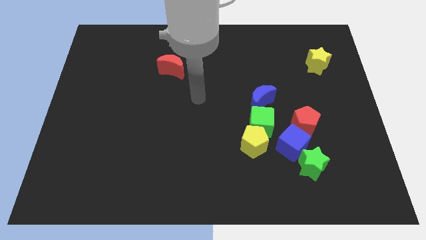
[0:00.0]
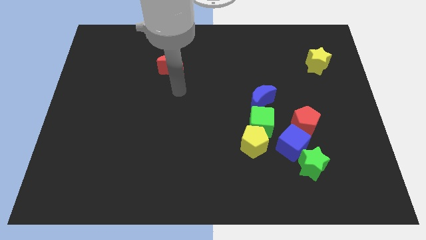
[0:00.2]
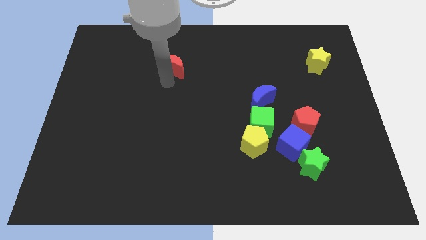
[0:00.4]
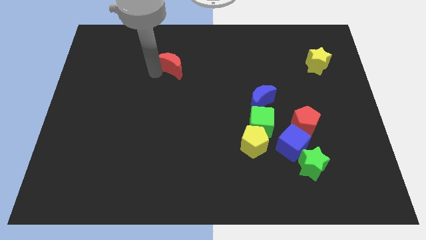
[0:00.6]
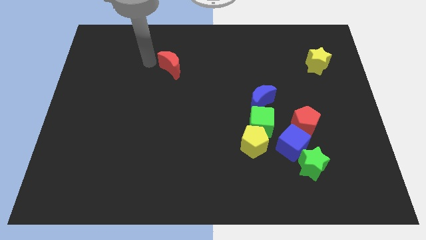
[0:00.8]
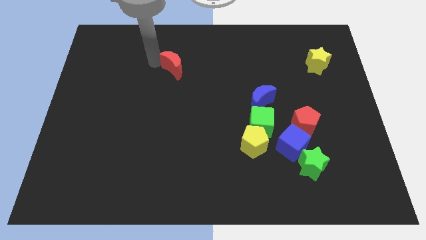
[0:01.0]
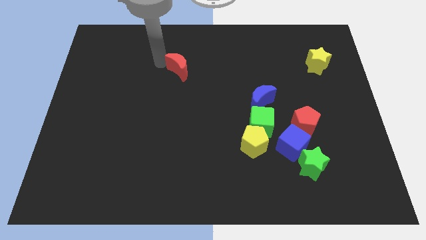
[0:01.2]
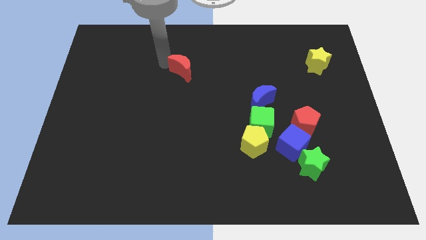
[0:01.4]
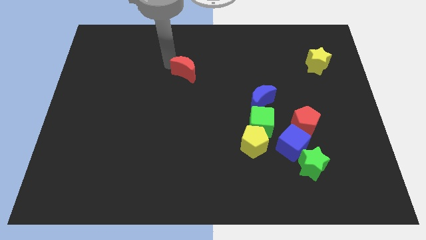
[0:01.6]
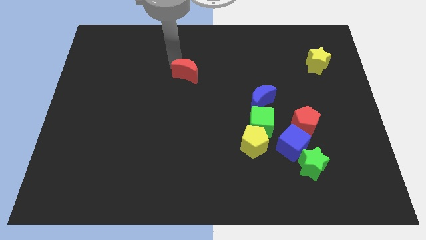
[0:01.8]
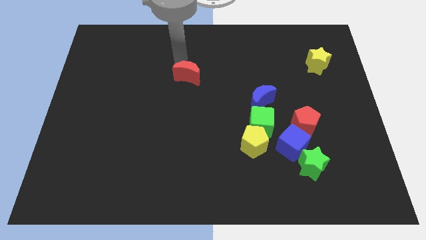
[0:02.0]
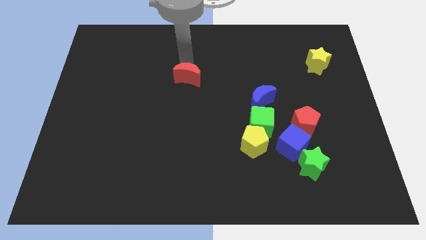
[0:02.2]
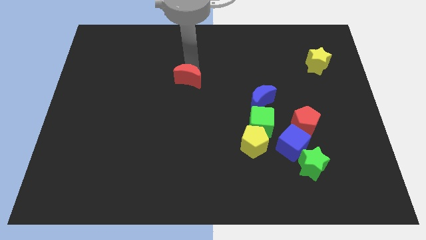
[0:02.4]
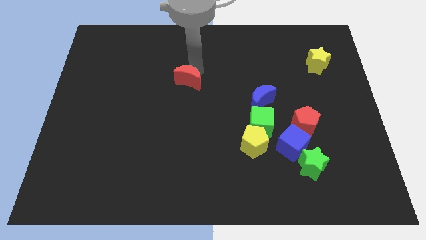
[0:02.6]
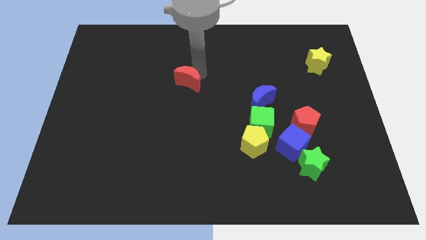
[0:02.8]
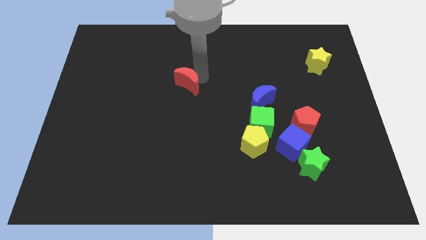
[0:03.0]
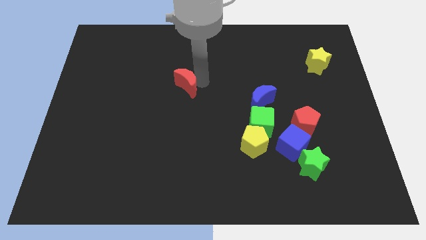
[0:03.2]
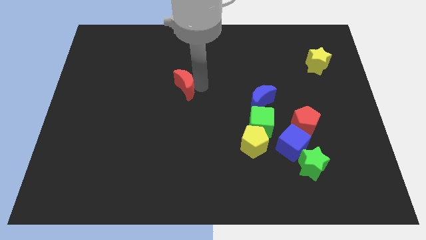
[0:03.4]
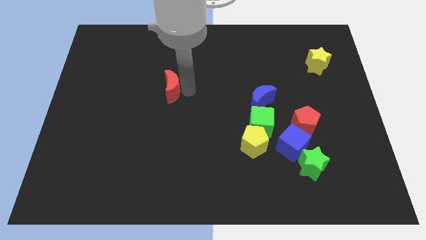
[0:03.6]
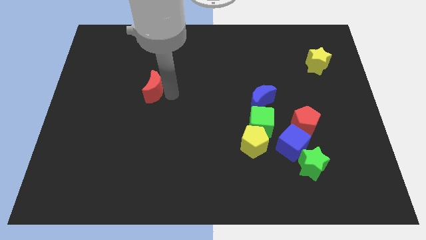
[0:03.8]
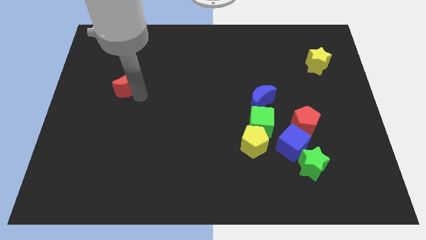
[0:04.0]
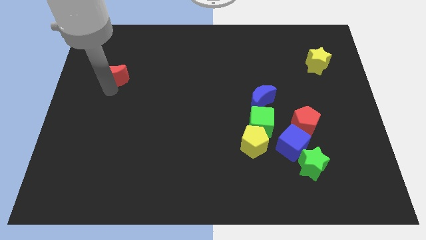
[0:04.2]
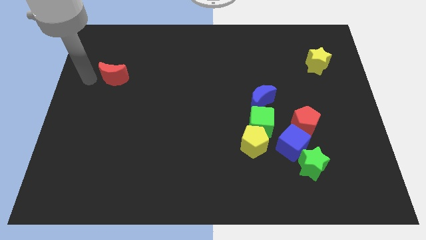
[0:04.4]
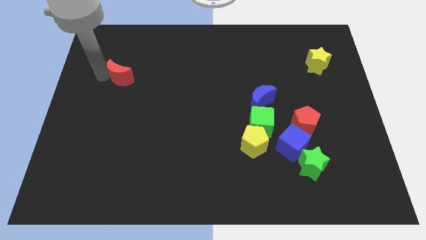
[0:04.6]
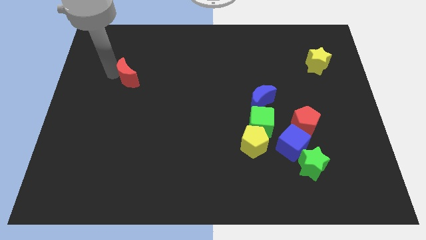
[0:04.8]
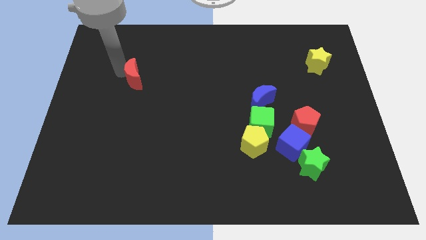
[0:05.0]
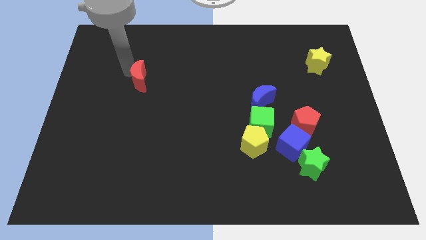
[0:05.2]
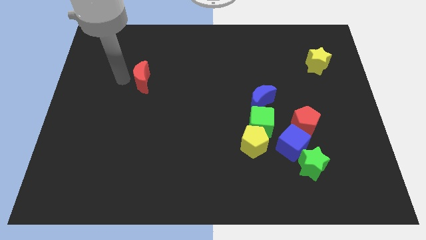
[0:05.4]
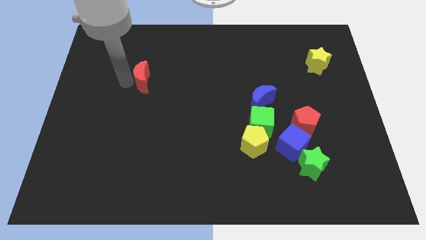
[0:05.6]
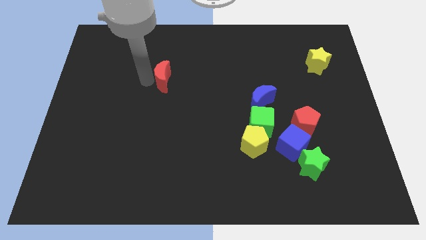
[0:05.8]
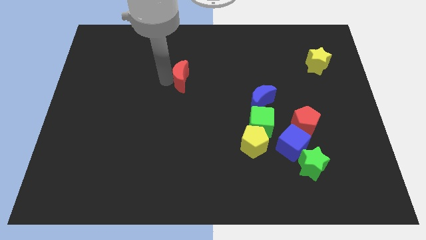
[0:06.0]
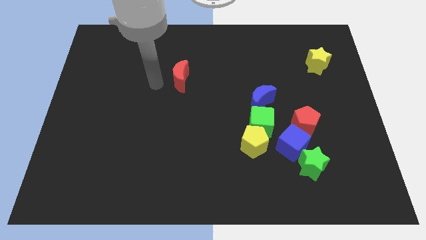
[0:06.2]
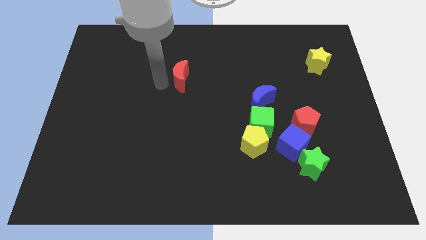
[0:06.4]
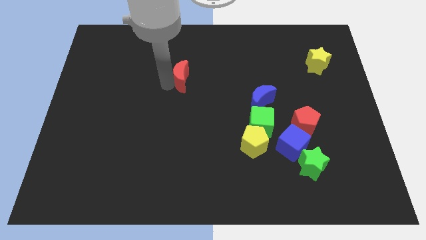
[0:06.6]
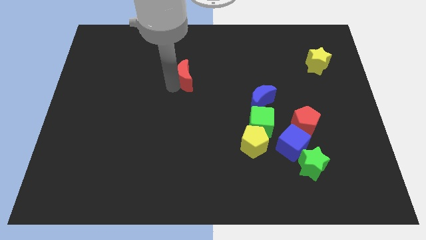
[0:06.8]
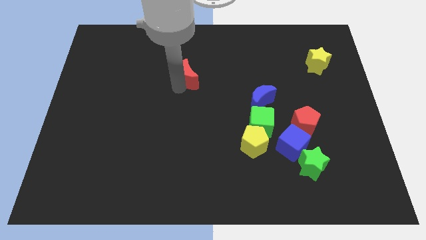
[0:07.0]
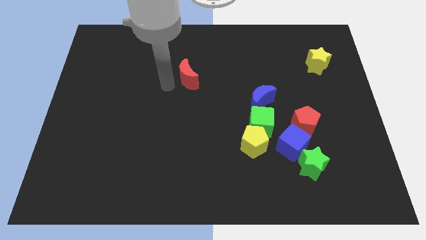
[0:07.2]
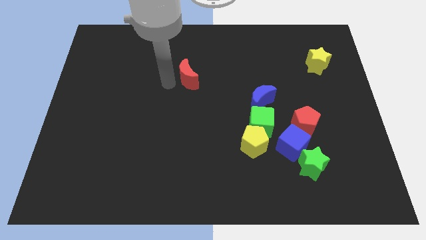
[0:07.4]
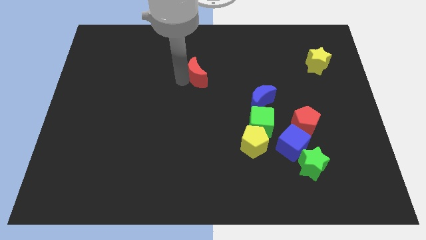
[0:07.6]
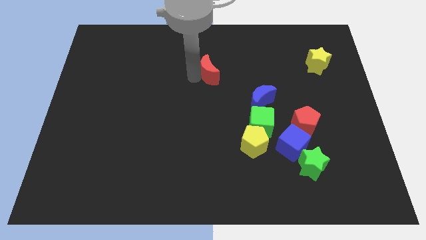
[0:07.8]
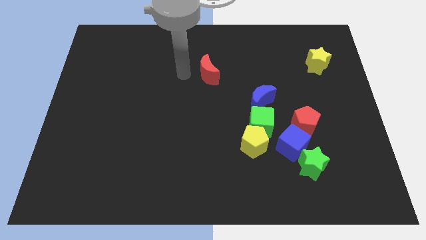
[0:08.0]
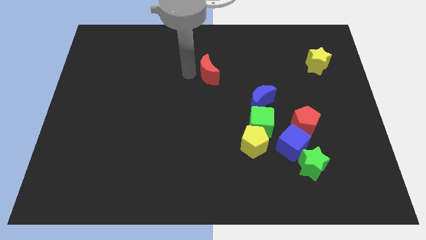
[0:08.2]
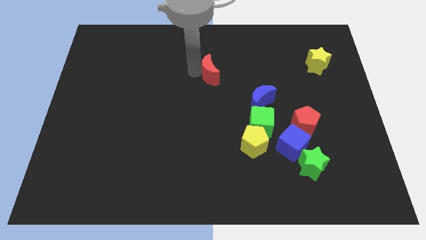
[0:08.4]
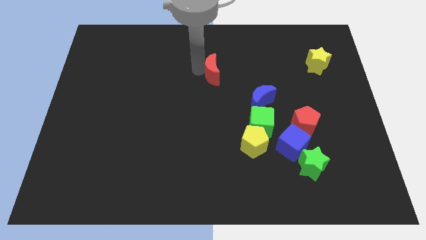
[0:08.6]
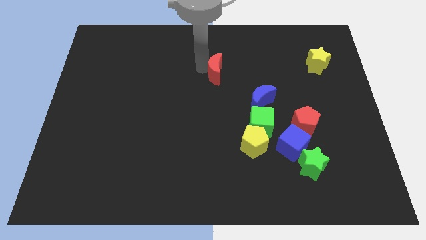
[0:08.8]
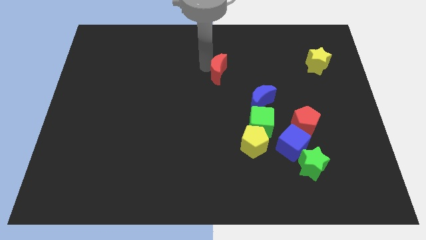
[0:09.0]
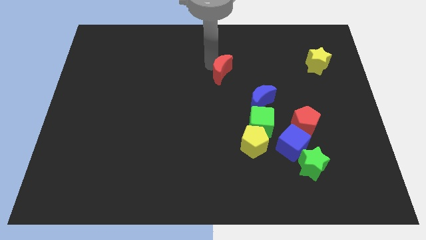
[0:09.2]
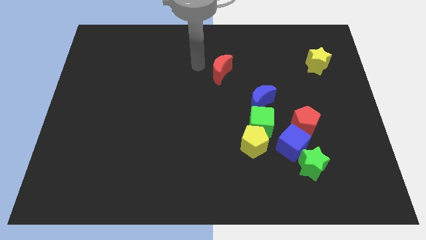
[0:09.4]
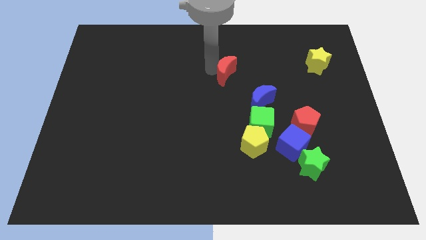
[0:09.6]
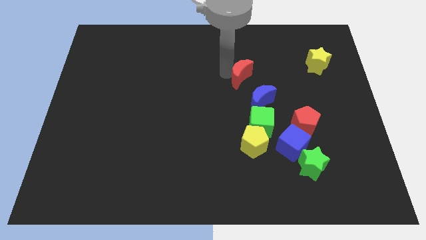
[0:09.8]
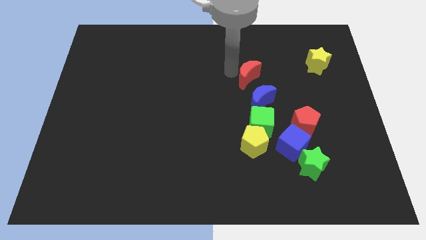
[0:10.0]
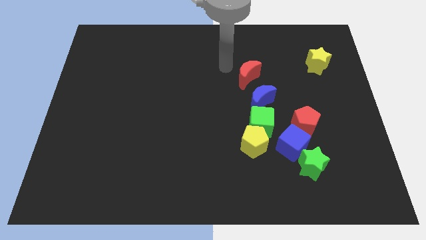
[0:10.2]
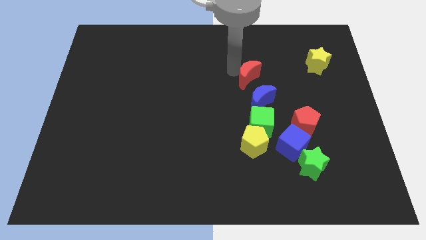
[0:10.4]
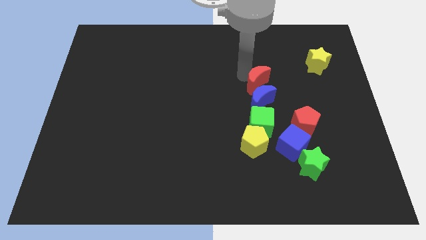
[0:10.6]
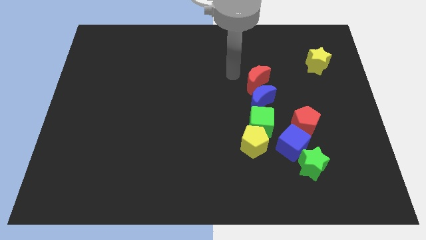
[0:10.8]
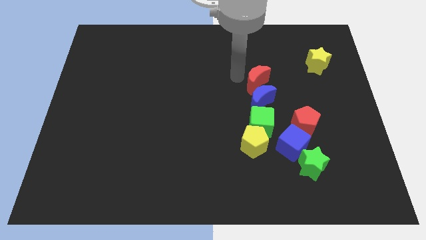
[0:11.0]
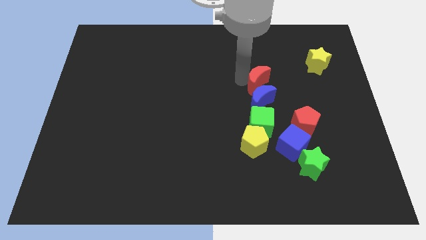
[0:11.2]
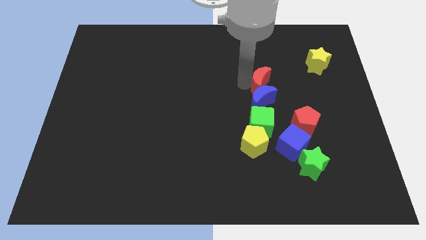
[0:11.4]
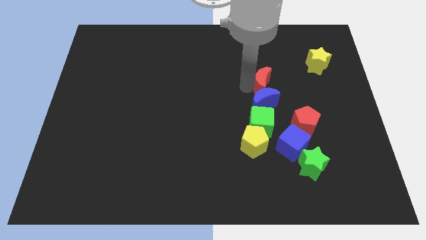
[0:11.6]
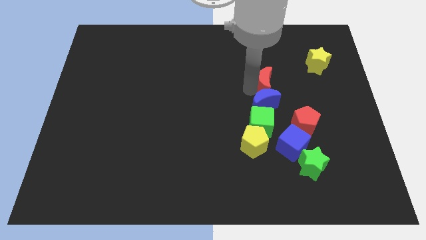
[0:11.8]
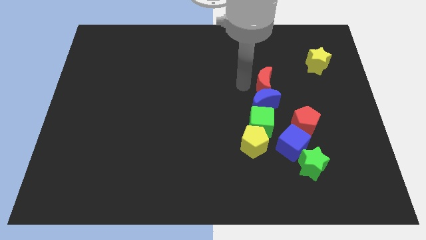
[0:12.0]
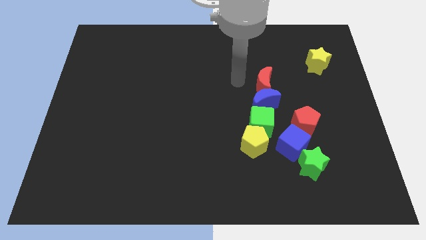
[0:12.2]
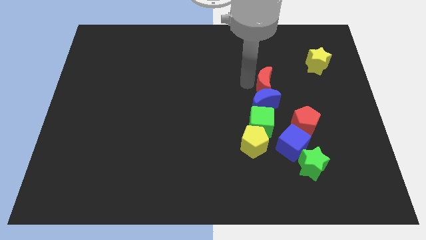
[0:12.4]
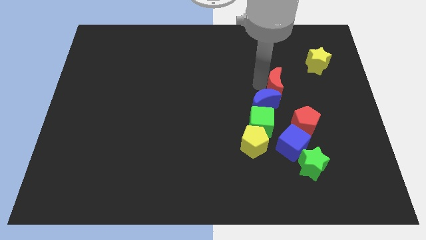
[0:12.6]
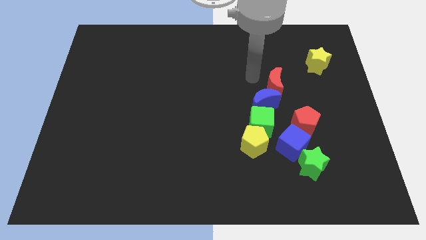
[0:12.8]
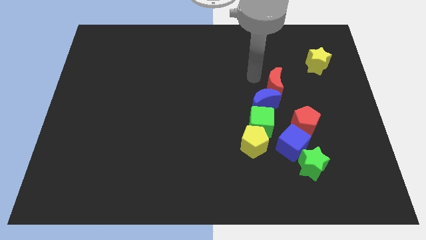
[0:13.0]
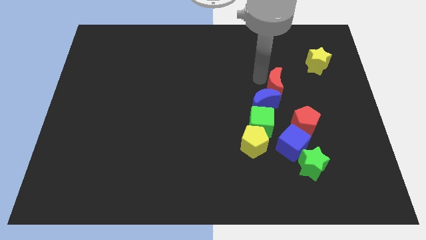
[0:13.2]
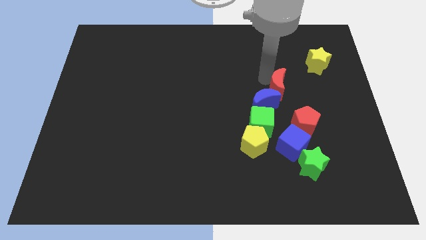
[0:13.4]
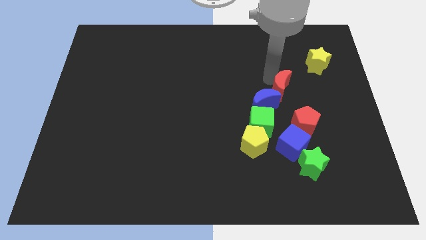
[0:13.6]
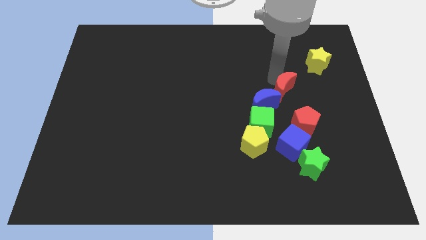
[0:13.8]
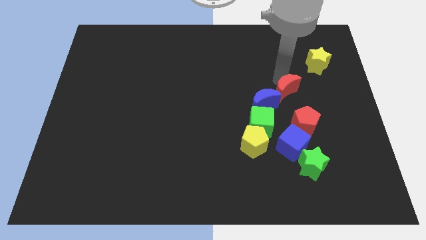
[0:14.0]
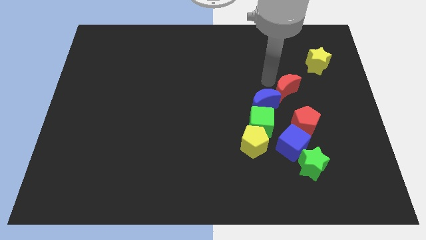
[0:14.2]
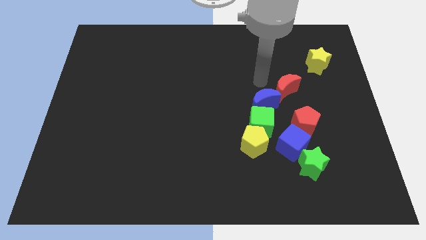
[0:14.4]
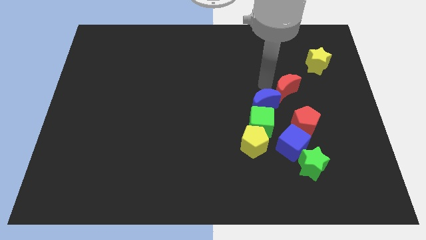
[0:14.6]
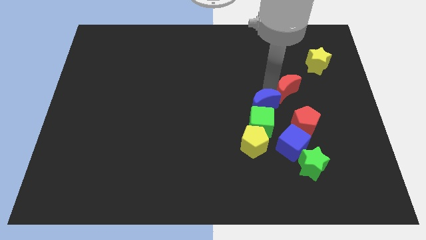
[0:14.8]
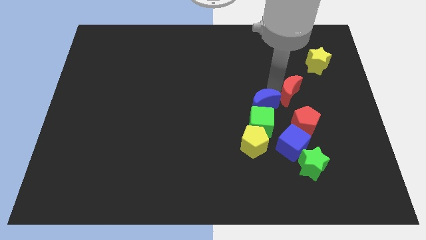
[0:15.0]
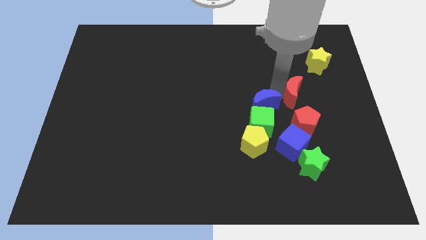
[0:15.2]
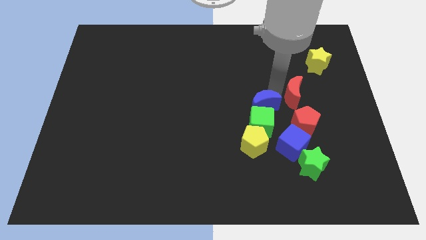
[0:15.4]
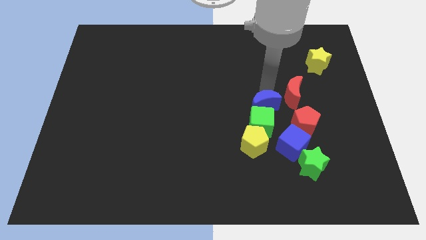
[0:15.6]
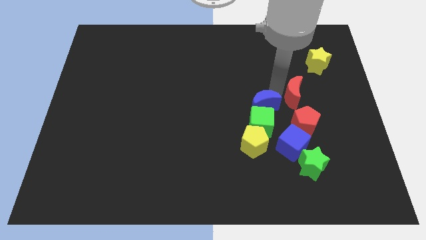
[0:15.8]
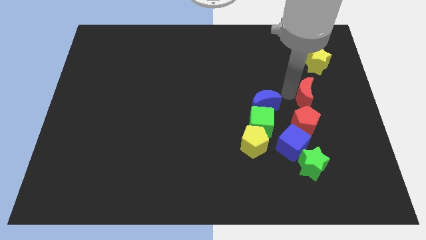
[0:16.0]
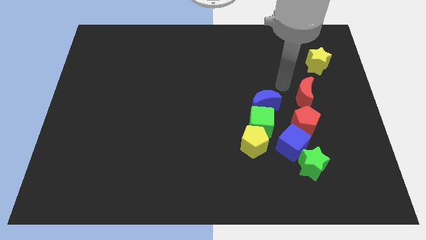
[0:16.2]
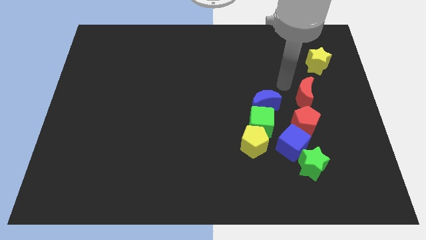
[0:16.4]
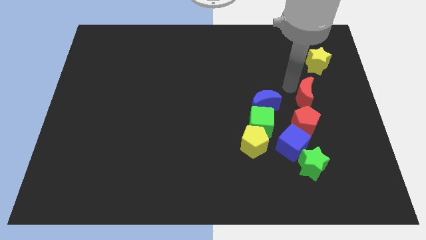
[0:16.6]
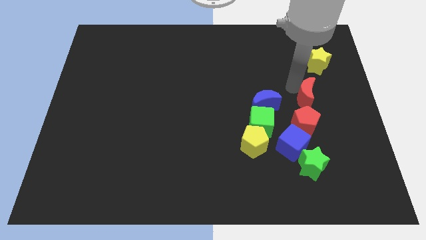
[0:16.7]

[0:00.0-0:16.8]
push the red moon diagonally up and to the right of the red pentagon
